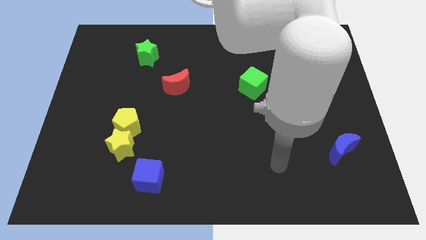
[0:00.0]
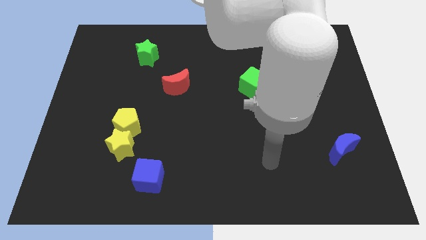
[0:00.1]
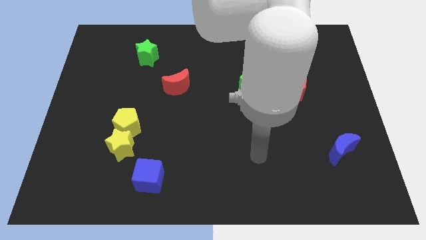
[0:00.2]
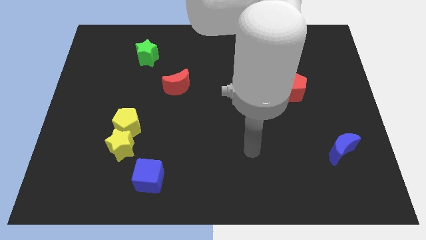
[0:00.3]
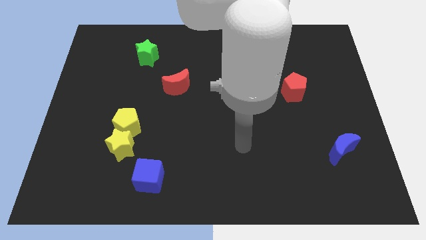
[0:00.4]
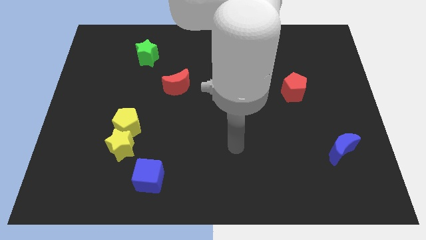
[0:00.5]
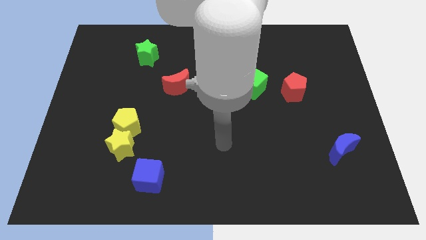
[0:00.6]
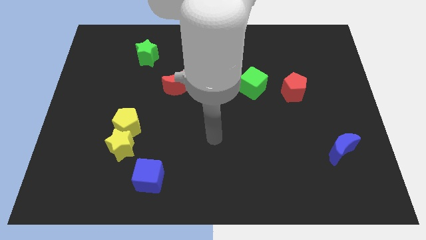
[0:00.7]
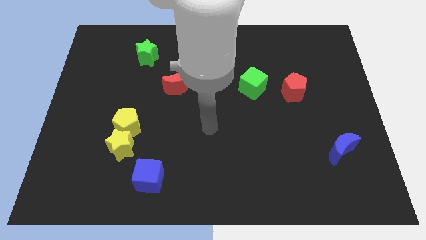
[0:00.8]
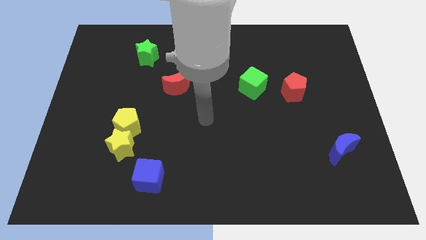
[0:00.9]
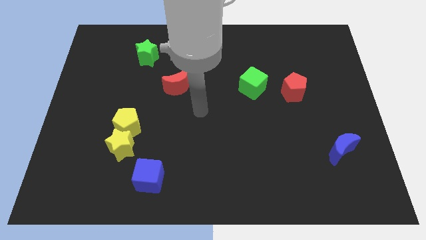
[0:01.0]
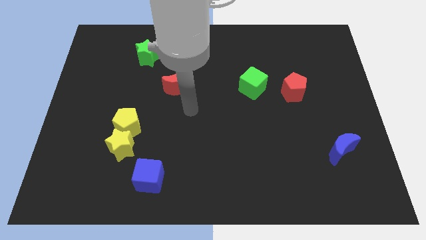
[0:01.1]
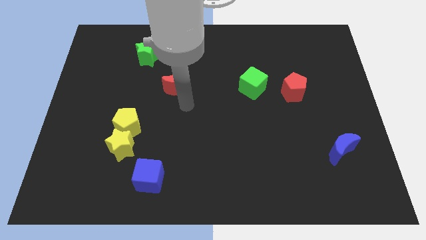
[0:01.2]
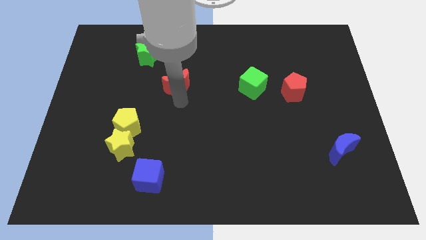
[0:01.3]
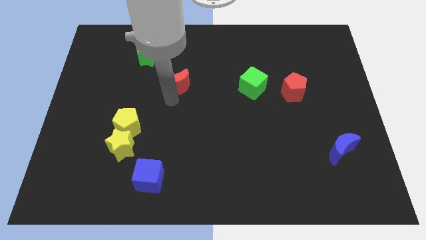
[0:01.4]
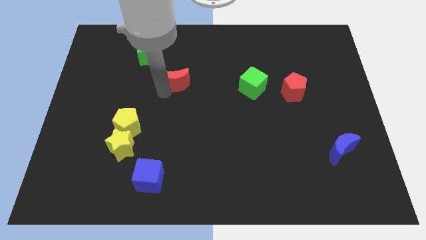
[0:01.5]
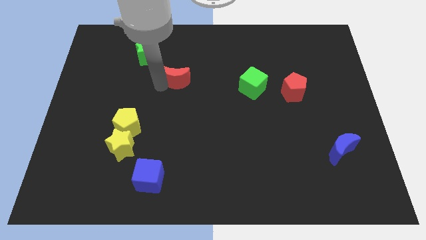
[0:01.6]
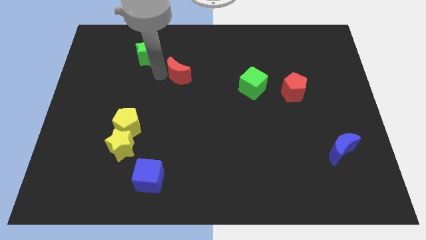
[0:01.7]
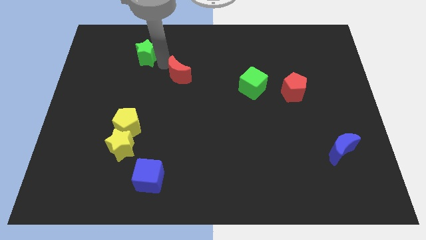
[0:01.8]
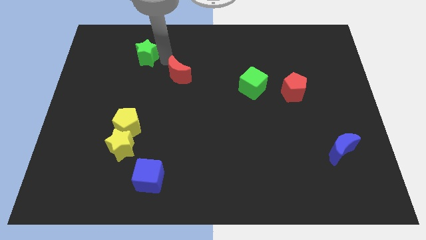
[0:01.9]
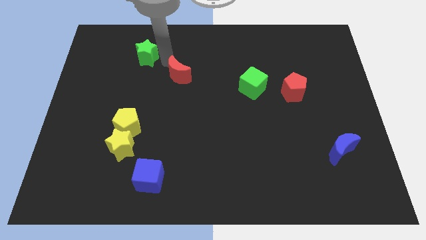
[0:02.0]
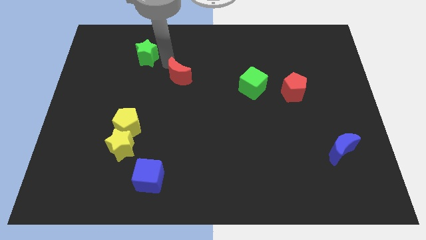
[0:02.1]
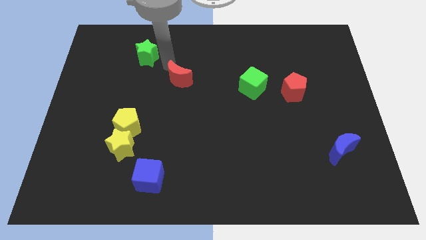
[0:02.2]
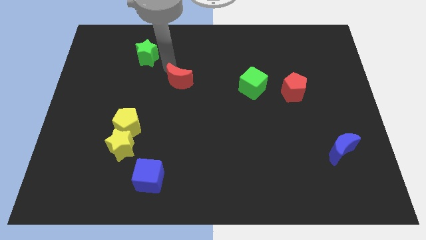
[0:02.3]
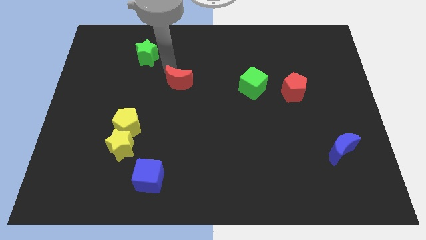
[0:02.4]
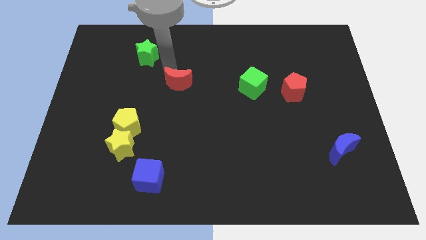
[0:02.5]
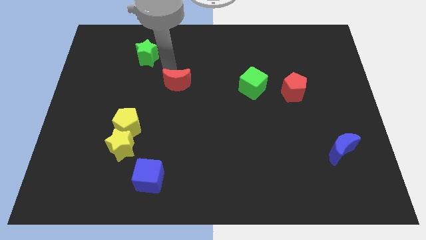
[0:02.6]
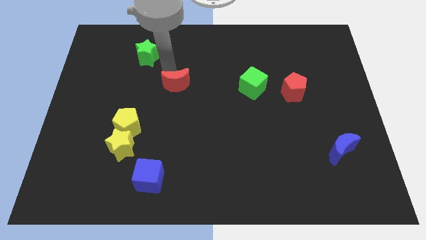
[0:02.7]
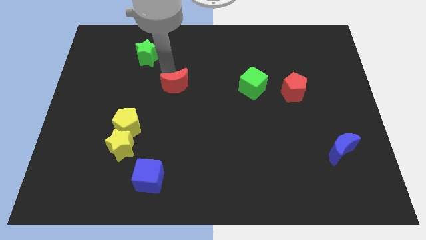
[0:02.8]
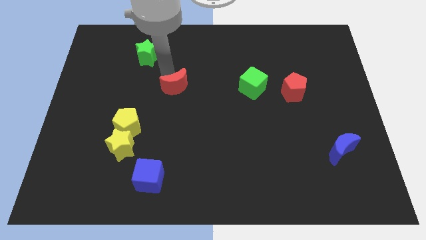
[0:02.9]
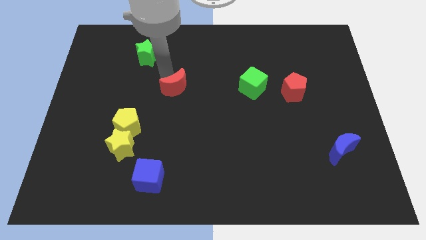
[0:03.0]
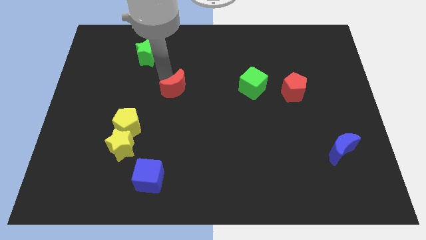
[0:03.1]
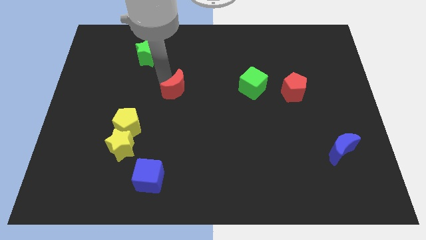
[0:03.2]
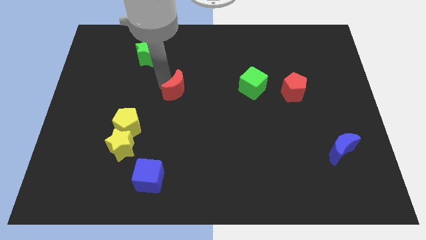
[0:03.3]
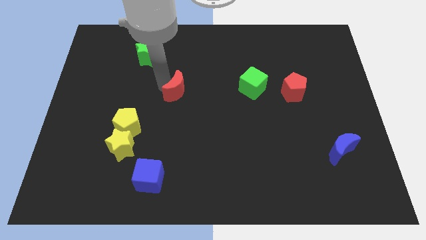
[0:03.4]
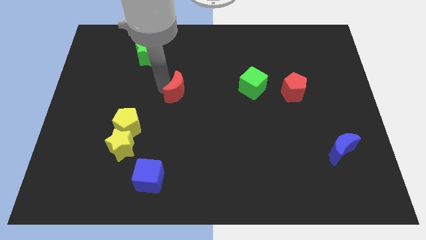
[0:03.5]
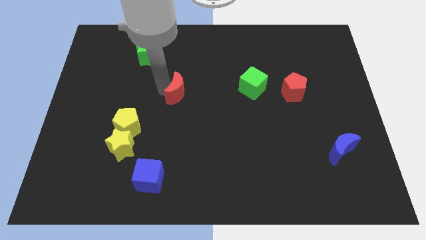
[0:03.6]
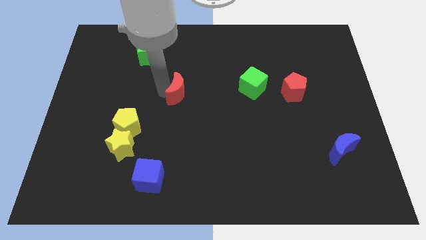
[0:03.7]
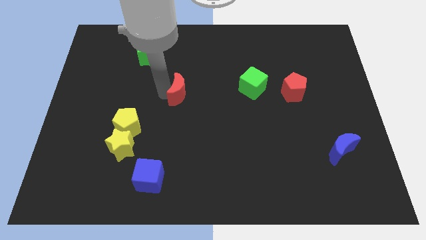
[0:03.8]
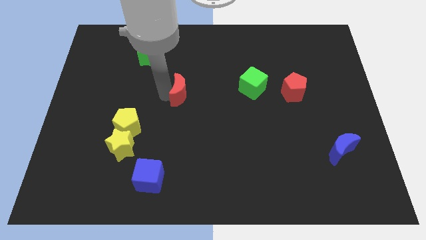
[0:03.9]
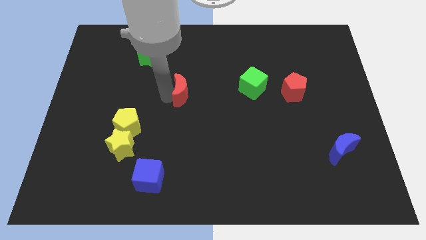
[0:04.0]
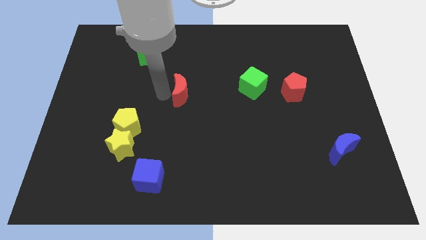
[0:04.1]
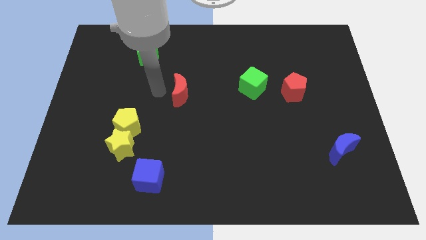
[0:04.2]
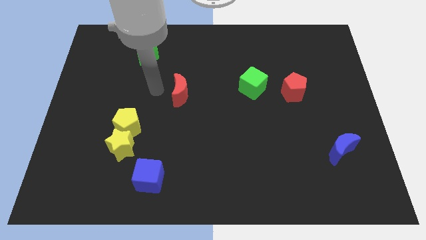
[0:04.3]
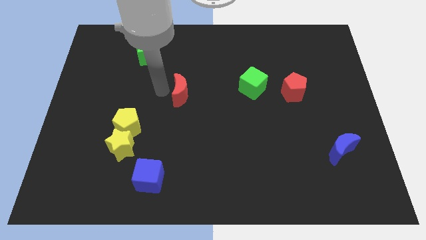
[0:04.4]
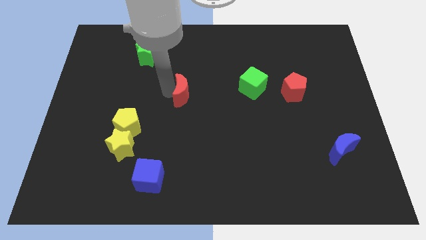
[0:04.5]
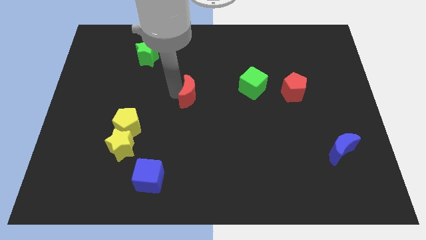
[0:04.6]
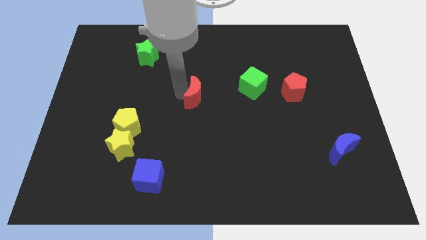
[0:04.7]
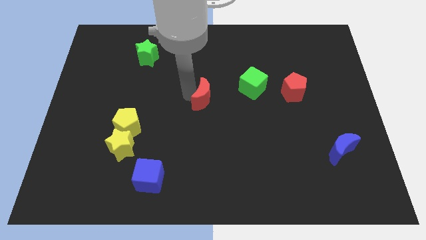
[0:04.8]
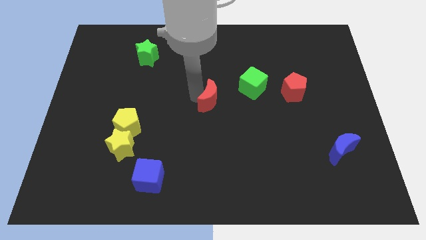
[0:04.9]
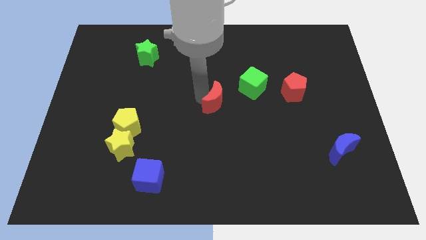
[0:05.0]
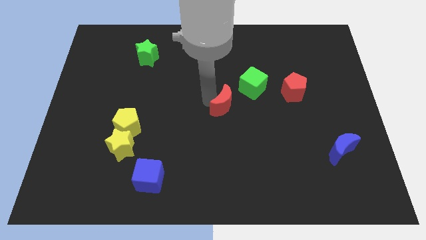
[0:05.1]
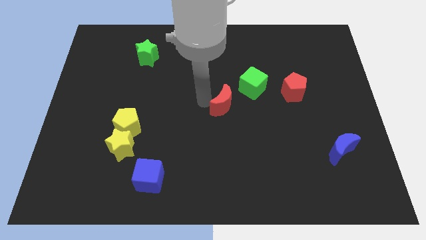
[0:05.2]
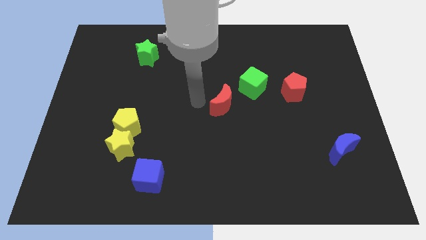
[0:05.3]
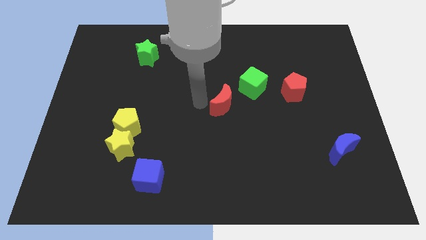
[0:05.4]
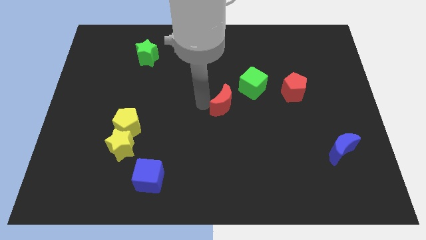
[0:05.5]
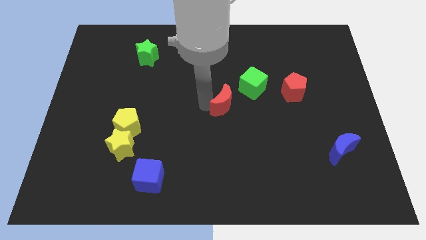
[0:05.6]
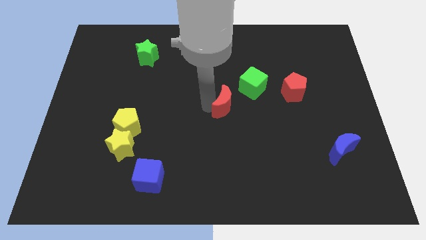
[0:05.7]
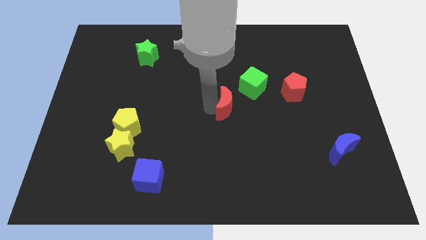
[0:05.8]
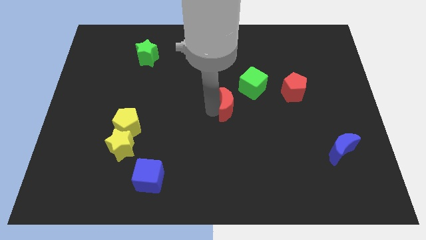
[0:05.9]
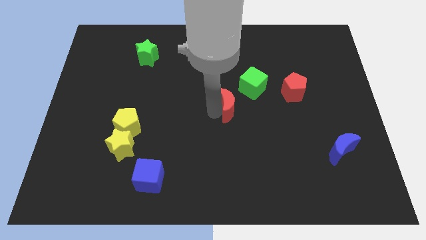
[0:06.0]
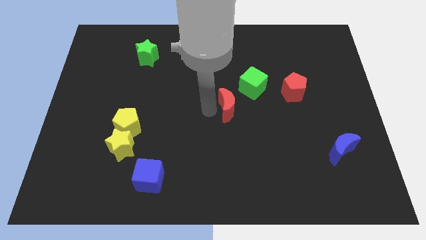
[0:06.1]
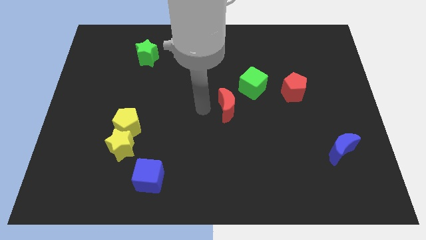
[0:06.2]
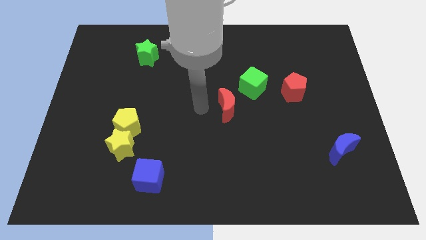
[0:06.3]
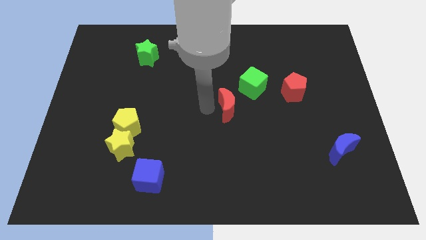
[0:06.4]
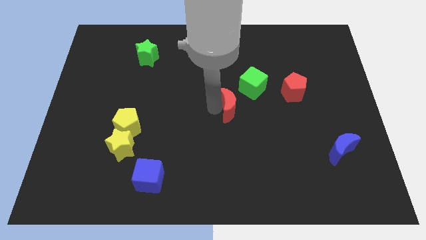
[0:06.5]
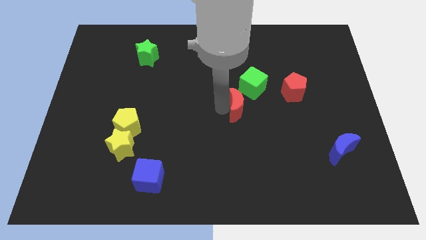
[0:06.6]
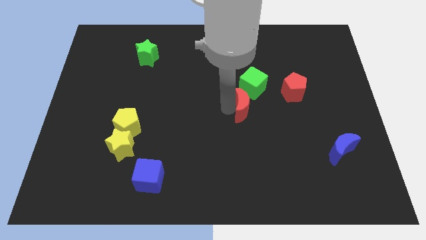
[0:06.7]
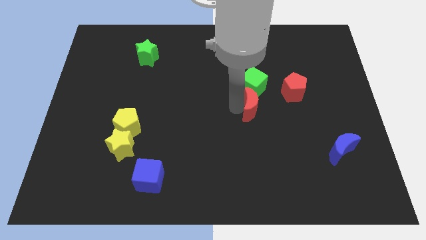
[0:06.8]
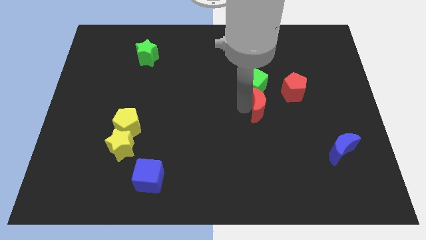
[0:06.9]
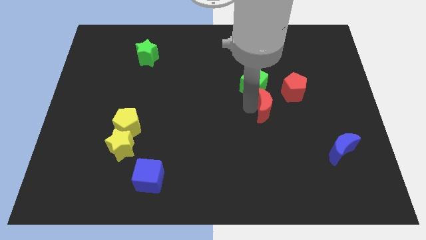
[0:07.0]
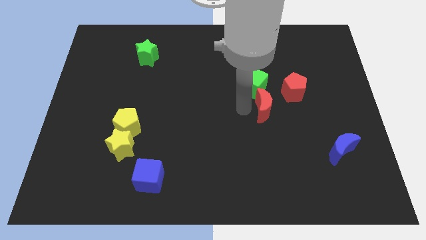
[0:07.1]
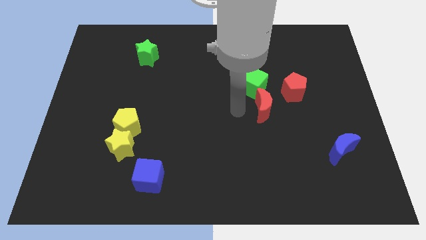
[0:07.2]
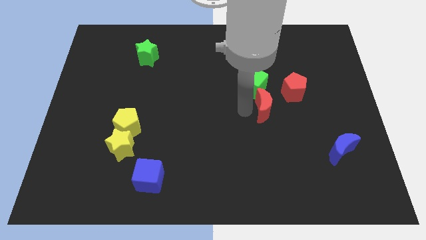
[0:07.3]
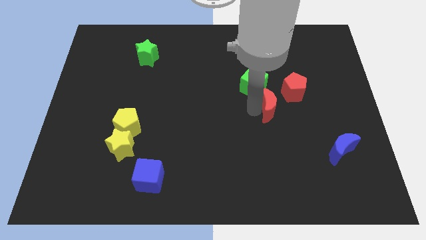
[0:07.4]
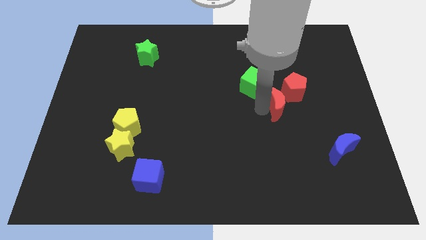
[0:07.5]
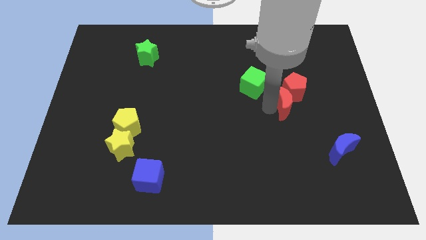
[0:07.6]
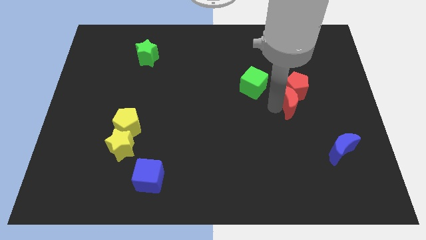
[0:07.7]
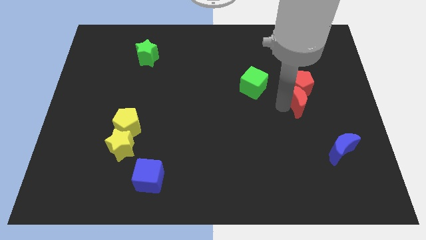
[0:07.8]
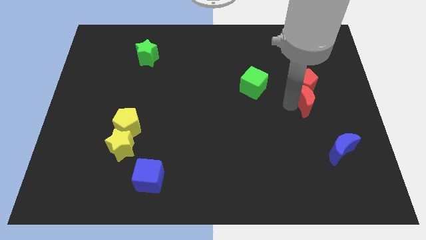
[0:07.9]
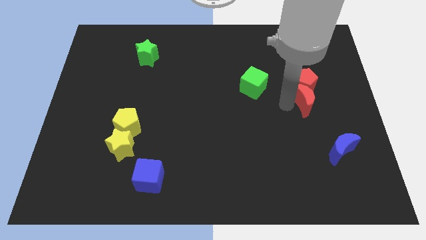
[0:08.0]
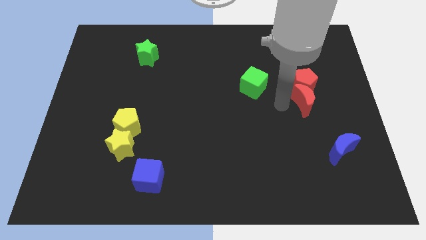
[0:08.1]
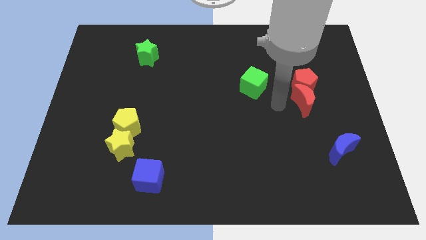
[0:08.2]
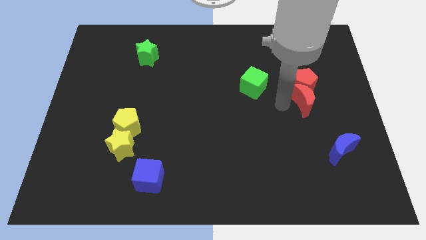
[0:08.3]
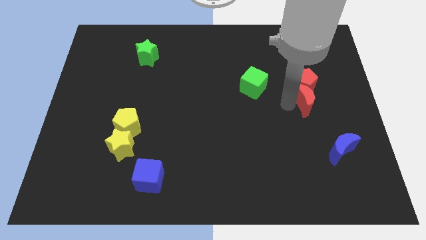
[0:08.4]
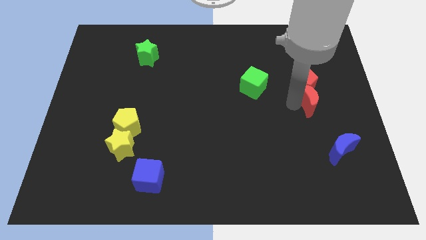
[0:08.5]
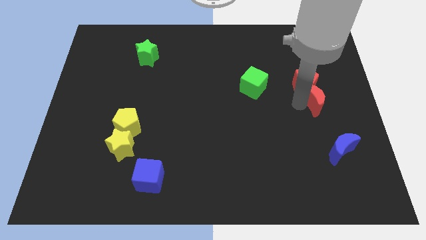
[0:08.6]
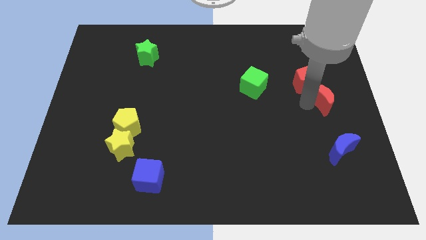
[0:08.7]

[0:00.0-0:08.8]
put the red moon to the right side
